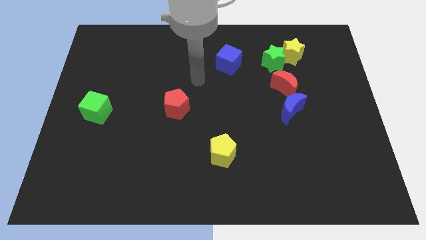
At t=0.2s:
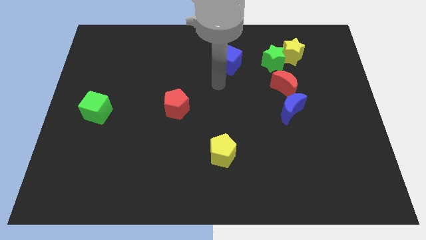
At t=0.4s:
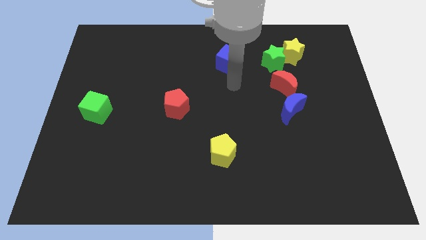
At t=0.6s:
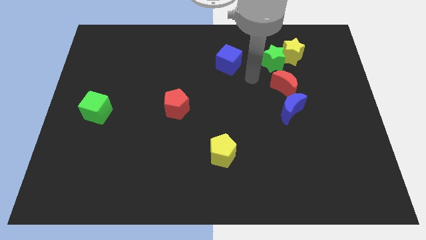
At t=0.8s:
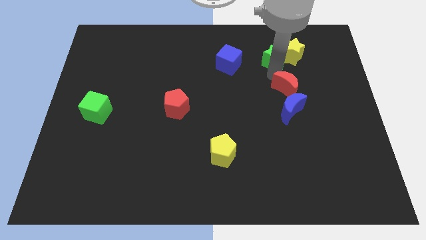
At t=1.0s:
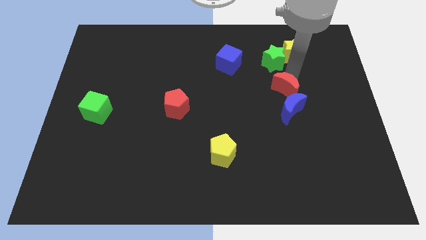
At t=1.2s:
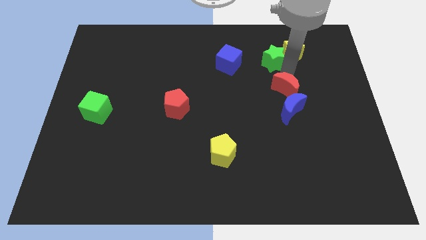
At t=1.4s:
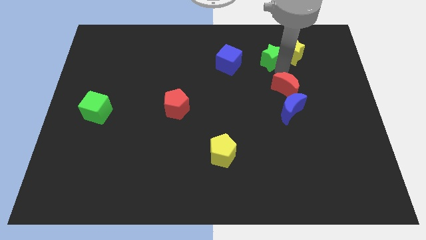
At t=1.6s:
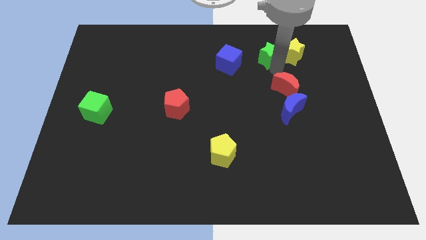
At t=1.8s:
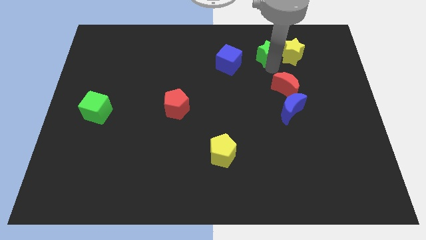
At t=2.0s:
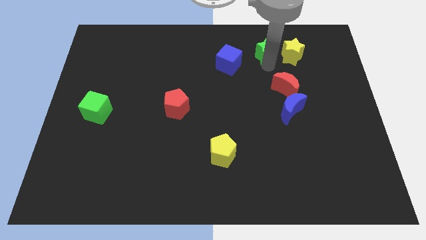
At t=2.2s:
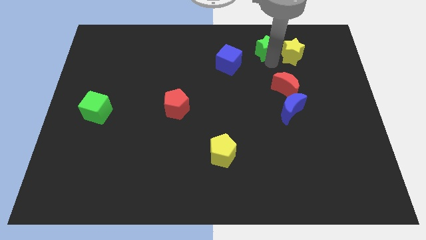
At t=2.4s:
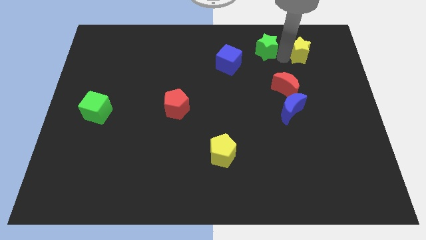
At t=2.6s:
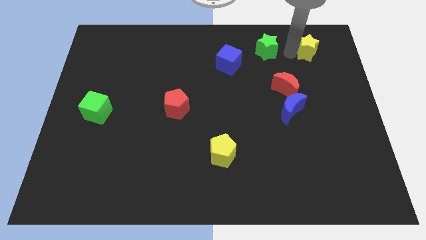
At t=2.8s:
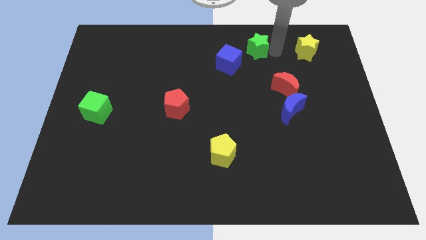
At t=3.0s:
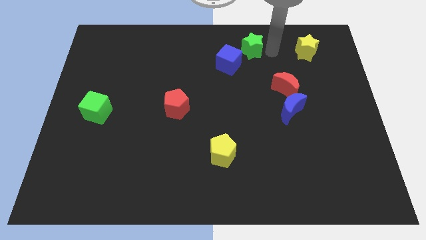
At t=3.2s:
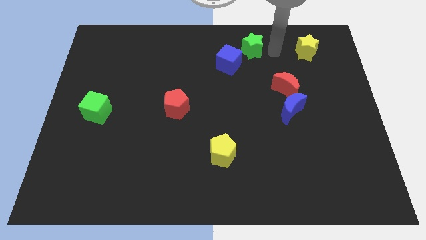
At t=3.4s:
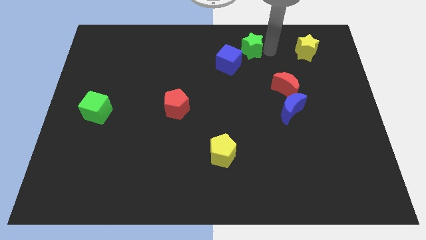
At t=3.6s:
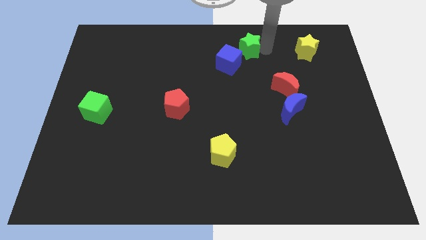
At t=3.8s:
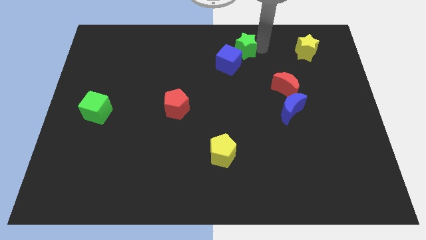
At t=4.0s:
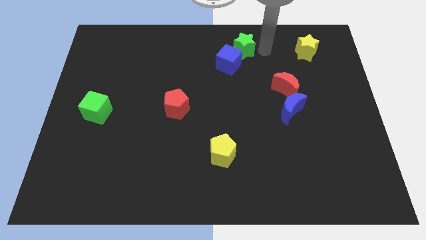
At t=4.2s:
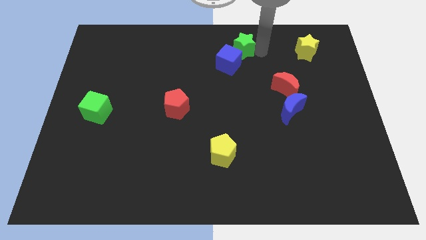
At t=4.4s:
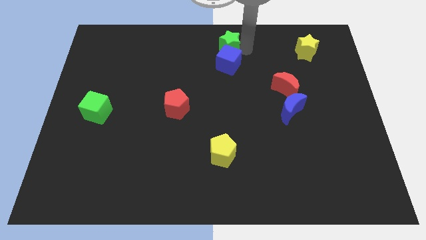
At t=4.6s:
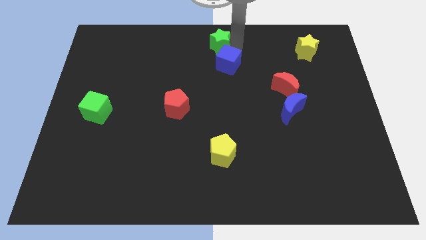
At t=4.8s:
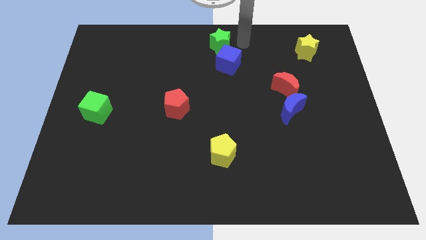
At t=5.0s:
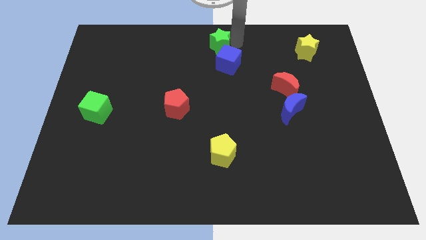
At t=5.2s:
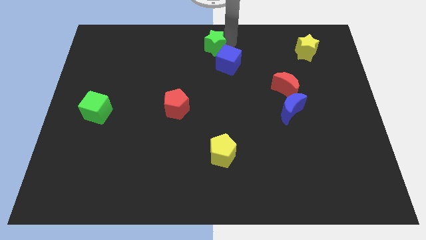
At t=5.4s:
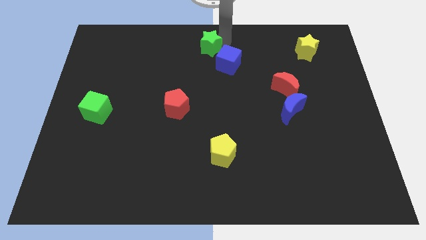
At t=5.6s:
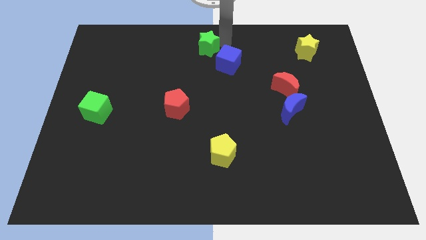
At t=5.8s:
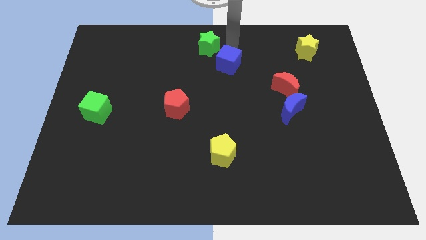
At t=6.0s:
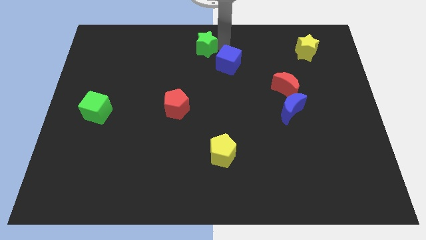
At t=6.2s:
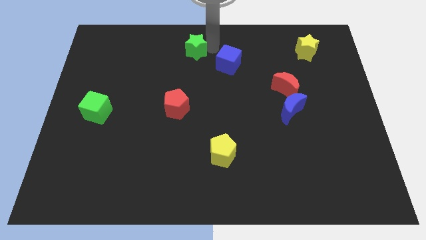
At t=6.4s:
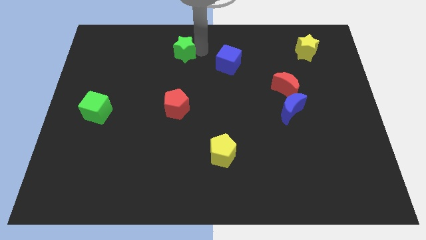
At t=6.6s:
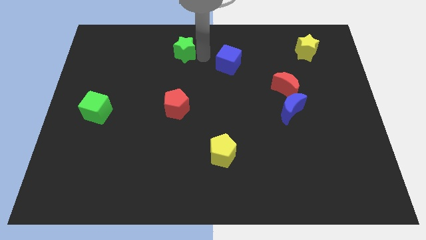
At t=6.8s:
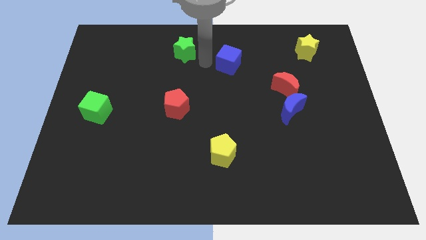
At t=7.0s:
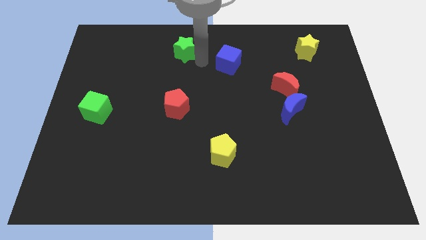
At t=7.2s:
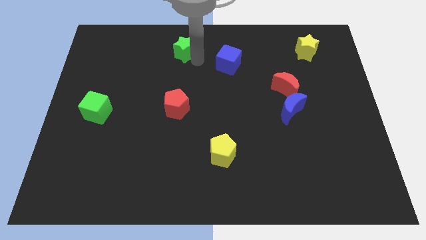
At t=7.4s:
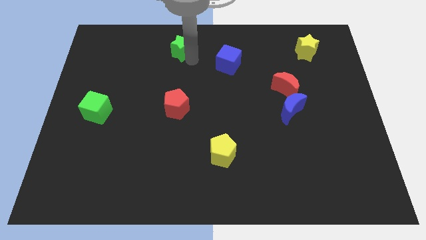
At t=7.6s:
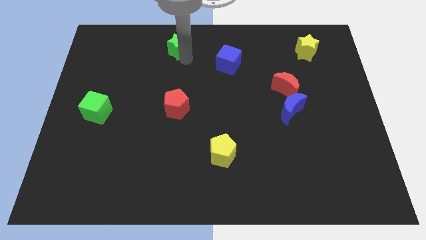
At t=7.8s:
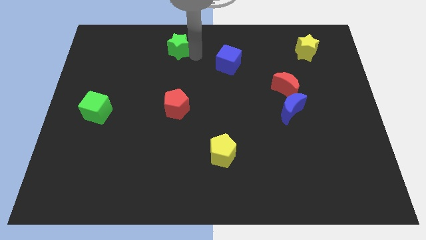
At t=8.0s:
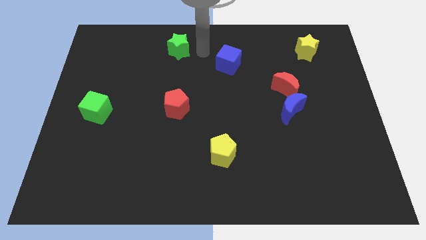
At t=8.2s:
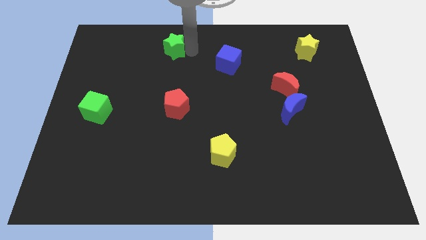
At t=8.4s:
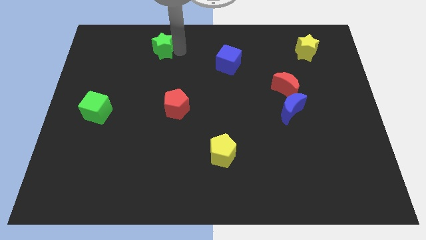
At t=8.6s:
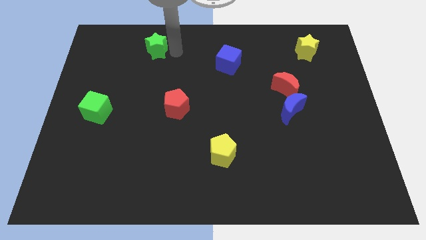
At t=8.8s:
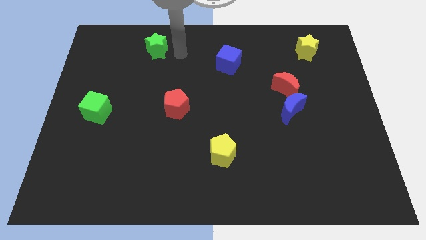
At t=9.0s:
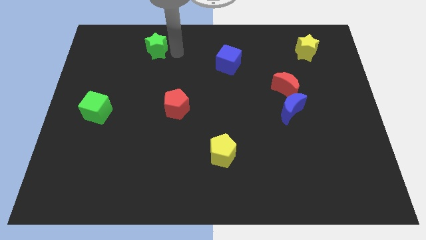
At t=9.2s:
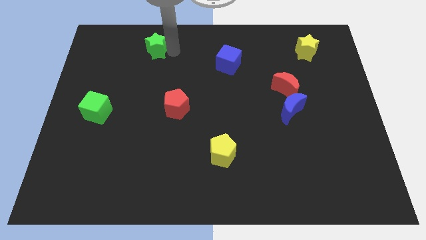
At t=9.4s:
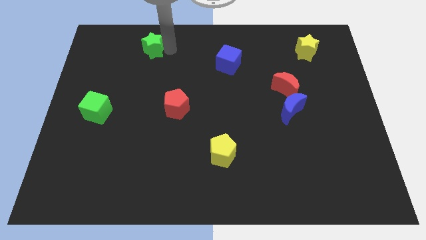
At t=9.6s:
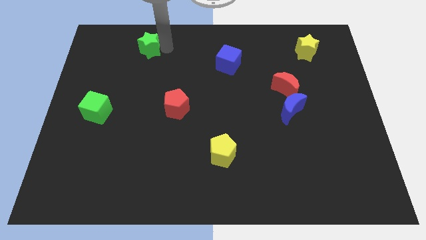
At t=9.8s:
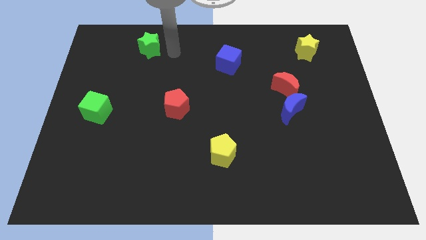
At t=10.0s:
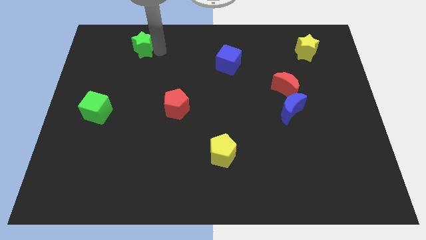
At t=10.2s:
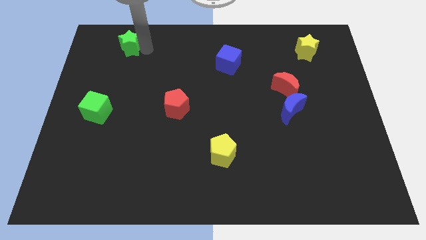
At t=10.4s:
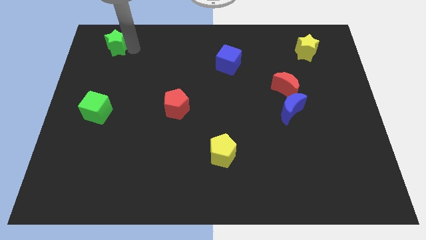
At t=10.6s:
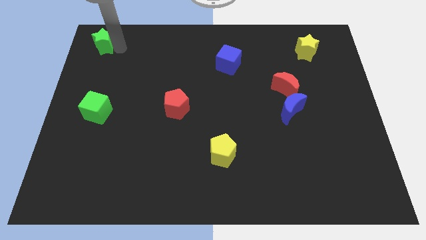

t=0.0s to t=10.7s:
slide the green star to the top left of the board

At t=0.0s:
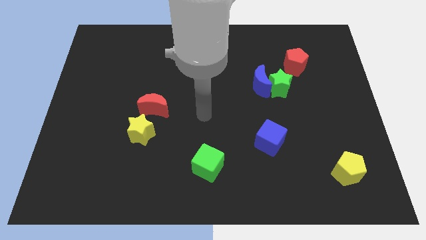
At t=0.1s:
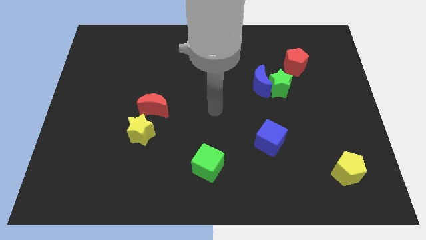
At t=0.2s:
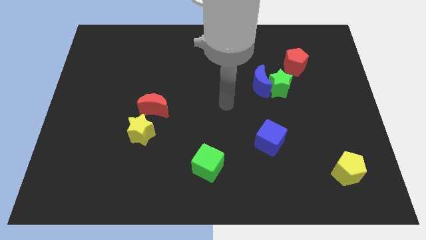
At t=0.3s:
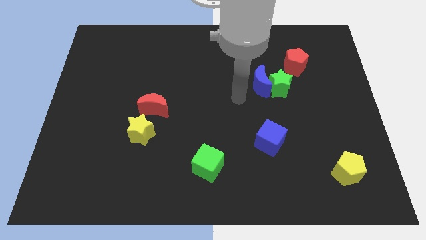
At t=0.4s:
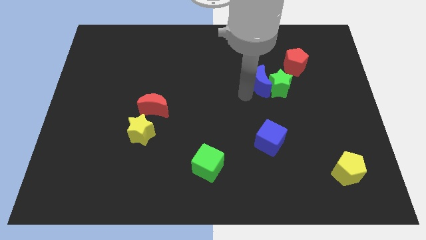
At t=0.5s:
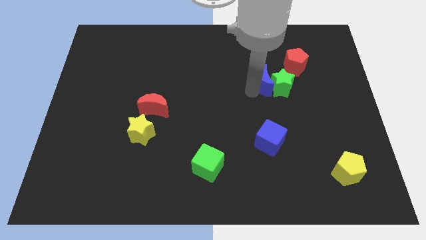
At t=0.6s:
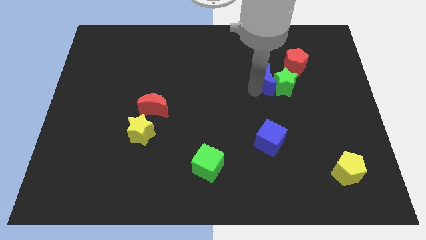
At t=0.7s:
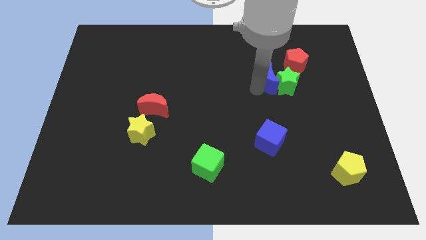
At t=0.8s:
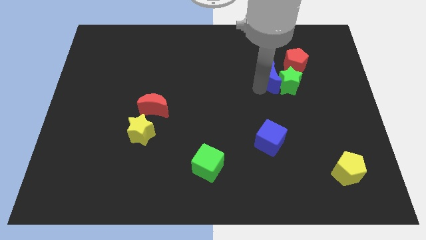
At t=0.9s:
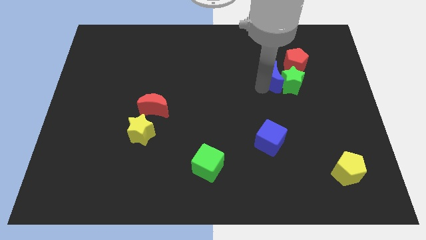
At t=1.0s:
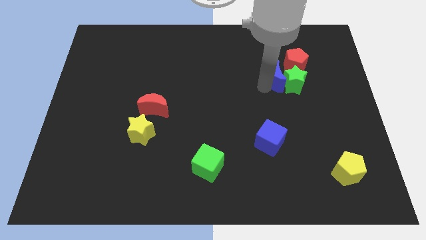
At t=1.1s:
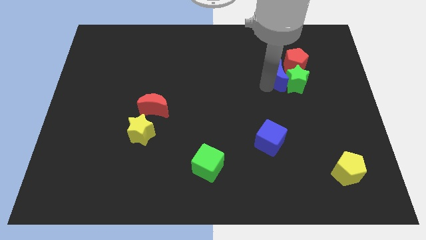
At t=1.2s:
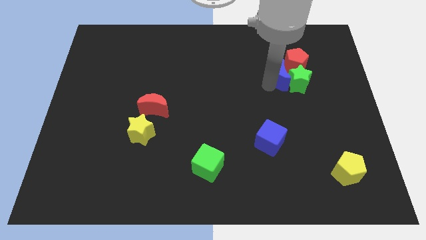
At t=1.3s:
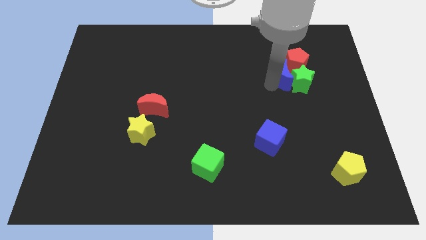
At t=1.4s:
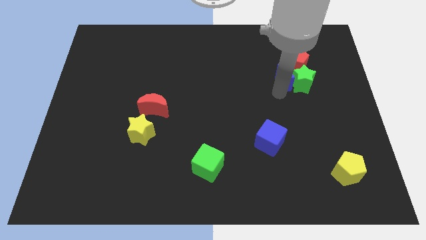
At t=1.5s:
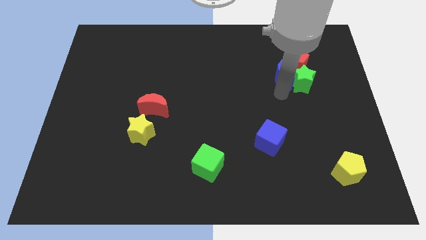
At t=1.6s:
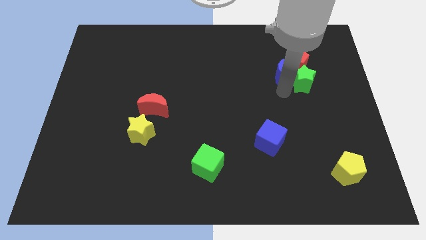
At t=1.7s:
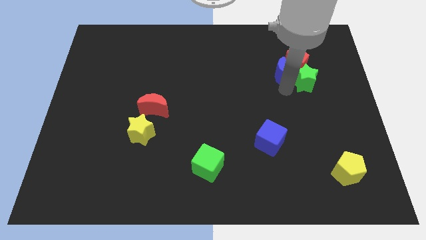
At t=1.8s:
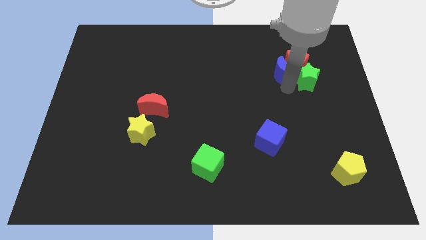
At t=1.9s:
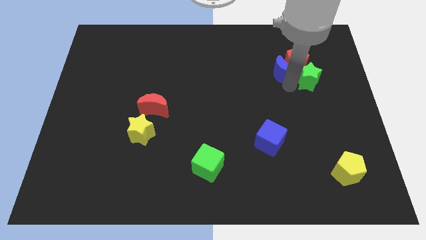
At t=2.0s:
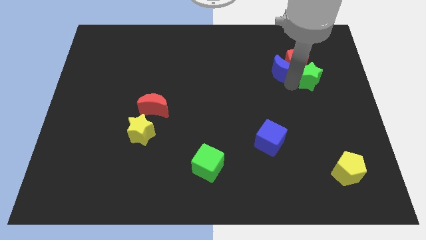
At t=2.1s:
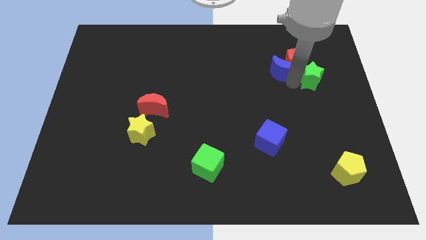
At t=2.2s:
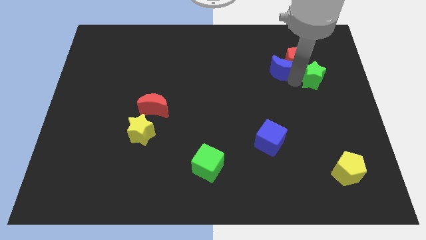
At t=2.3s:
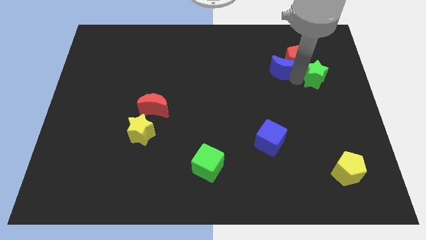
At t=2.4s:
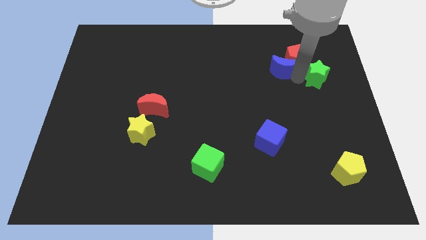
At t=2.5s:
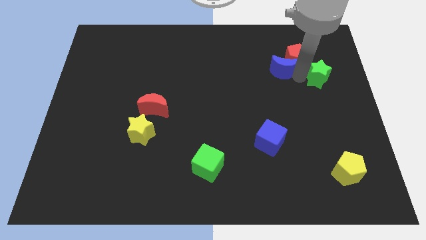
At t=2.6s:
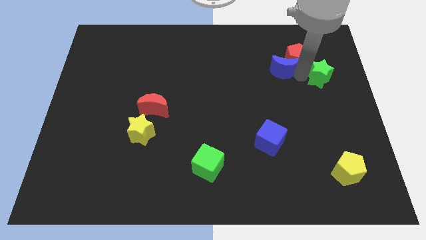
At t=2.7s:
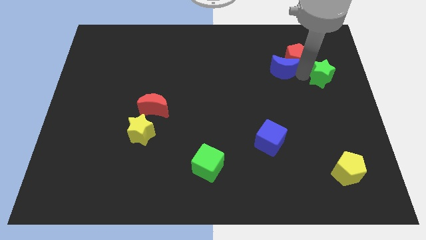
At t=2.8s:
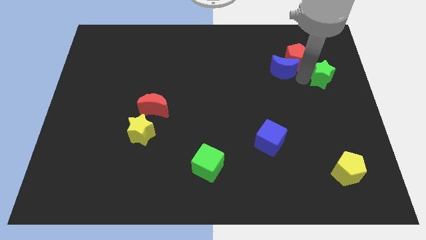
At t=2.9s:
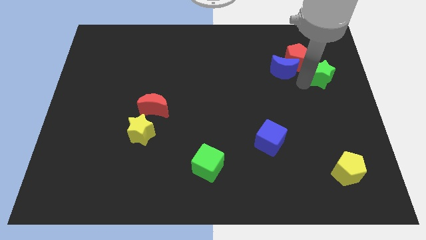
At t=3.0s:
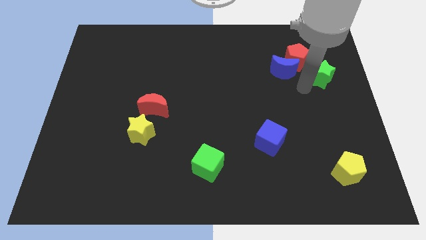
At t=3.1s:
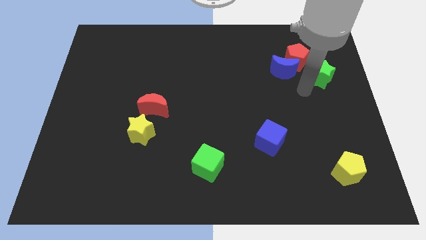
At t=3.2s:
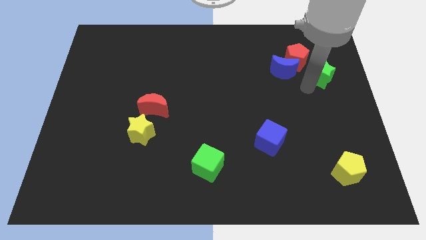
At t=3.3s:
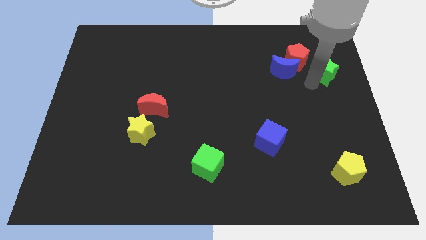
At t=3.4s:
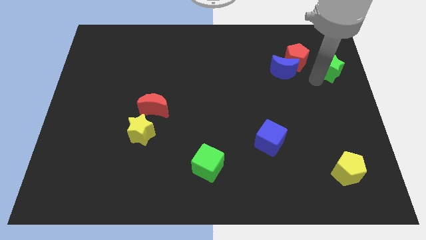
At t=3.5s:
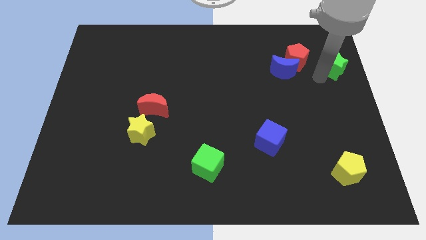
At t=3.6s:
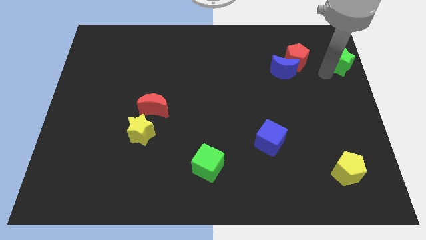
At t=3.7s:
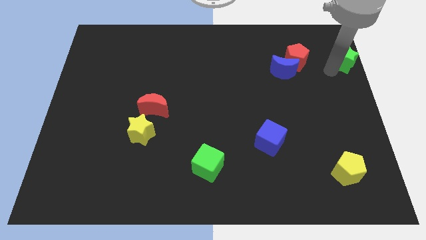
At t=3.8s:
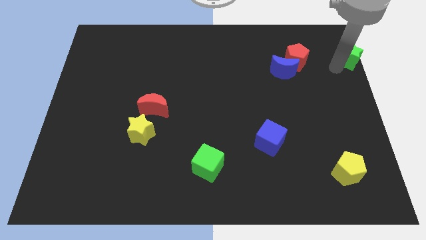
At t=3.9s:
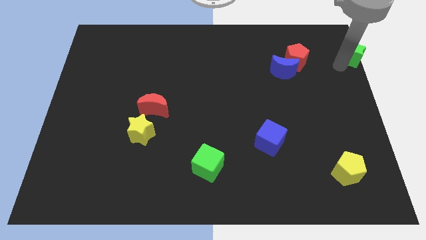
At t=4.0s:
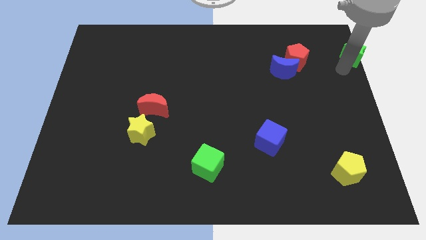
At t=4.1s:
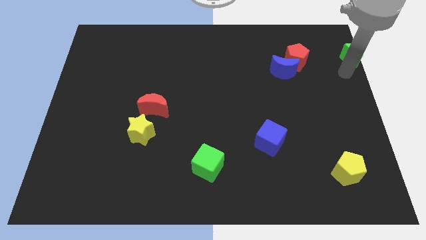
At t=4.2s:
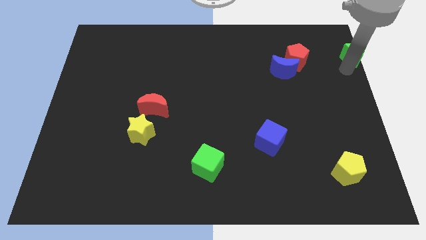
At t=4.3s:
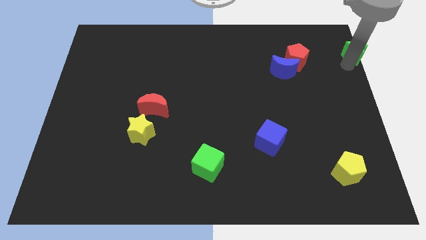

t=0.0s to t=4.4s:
push the green star to the top right corner
